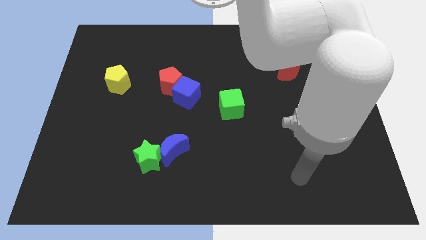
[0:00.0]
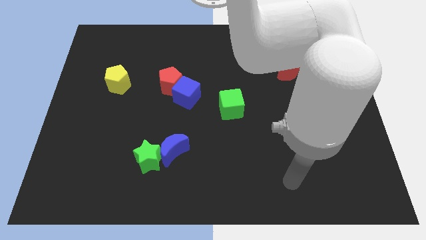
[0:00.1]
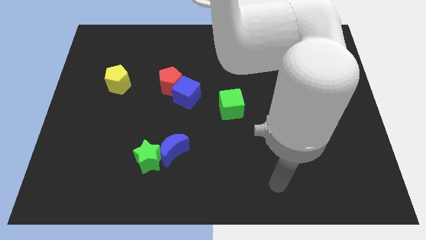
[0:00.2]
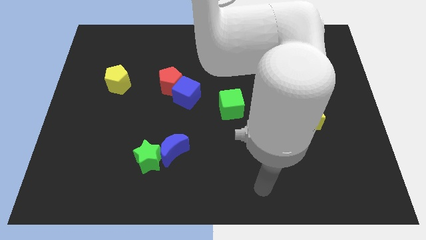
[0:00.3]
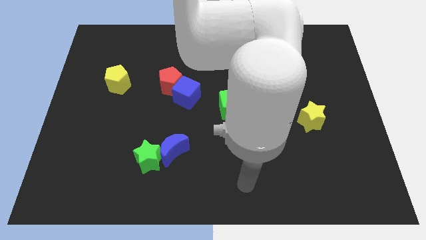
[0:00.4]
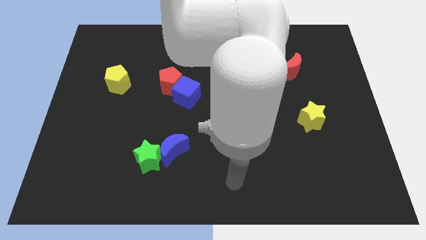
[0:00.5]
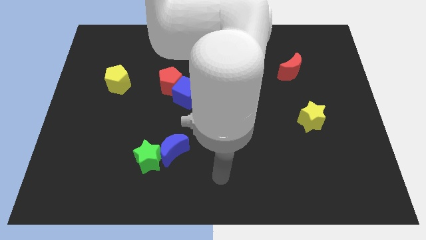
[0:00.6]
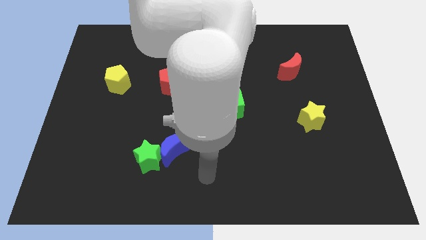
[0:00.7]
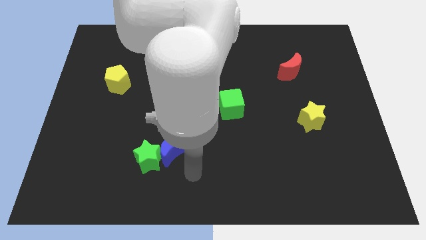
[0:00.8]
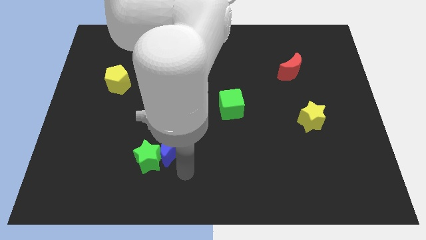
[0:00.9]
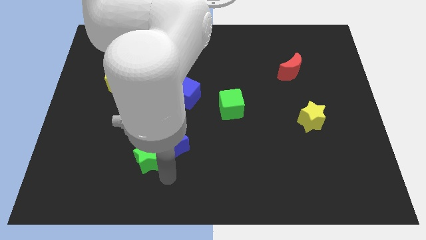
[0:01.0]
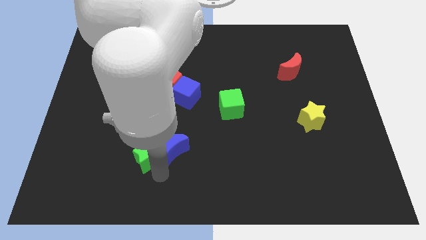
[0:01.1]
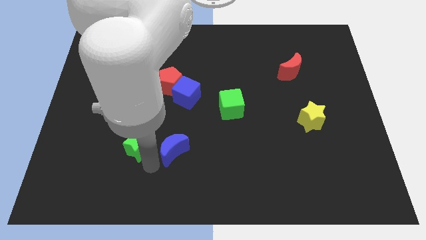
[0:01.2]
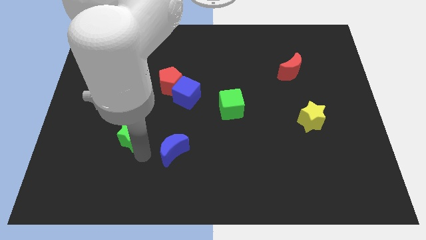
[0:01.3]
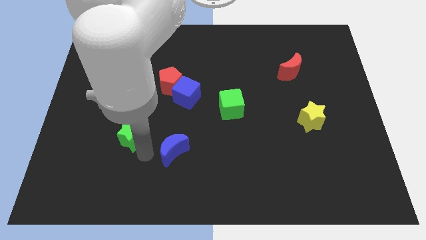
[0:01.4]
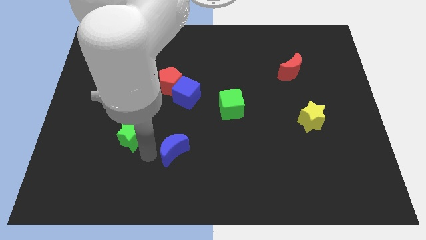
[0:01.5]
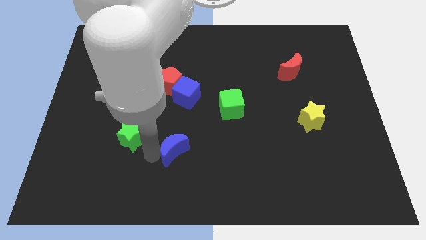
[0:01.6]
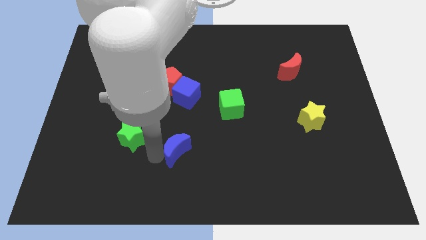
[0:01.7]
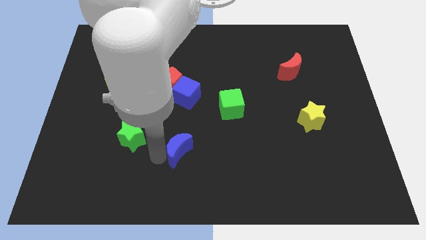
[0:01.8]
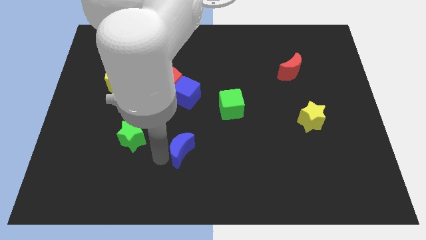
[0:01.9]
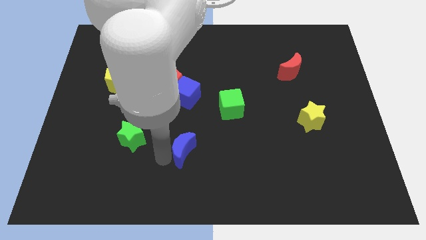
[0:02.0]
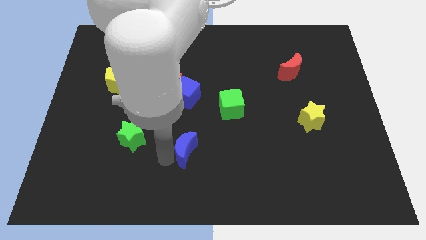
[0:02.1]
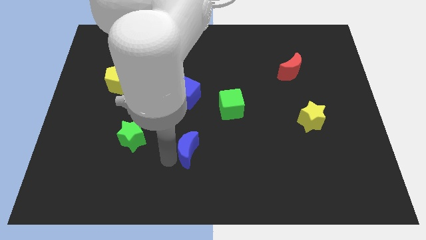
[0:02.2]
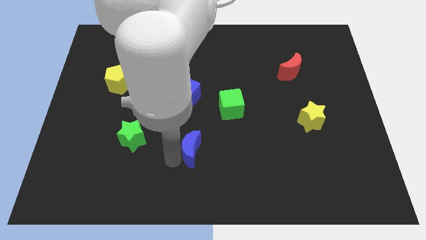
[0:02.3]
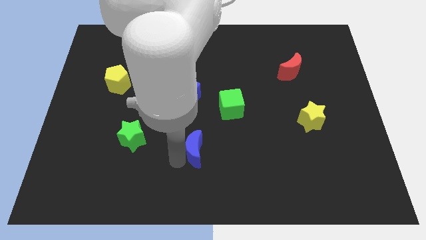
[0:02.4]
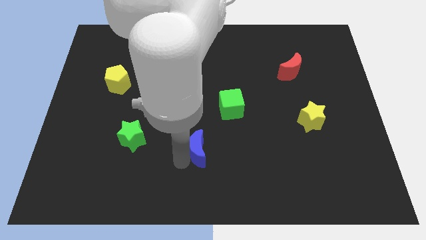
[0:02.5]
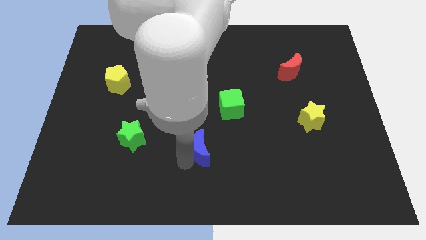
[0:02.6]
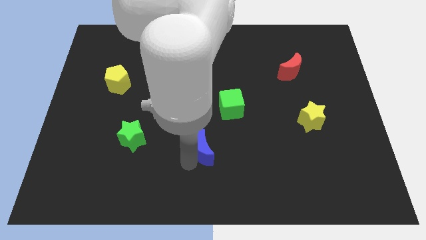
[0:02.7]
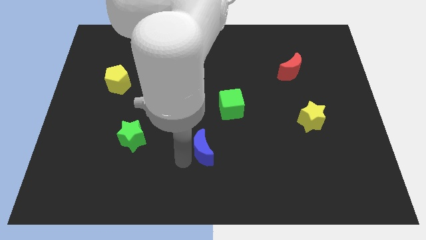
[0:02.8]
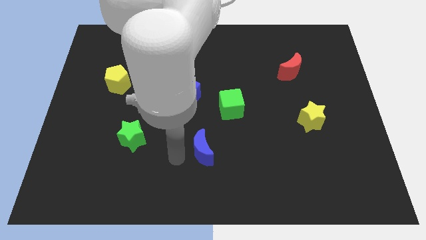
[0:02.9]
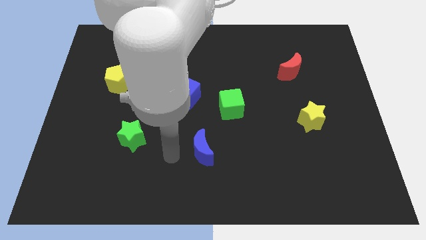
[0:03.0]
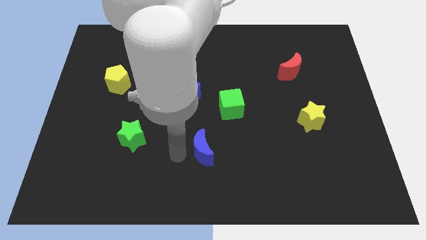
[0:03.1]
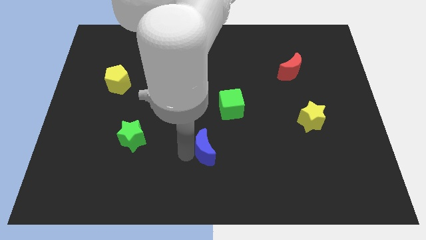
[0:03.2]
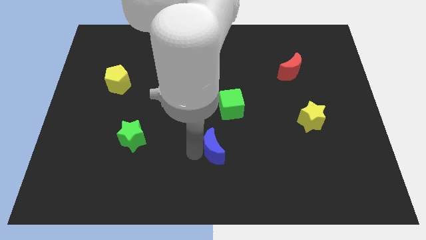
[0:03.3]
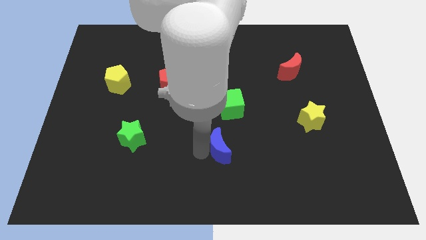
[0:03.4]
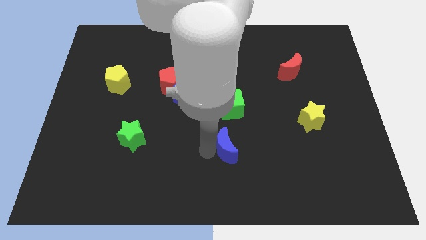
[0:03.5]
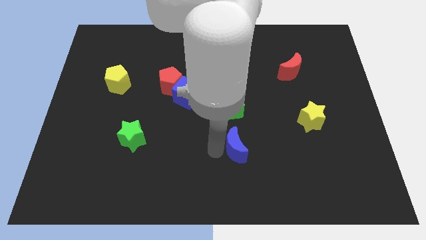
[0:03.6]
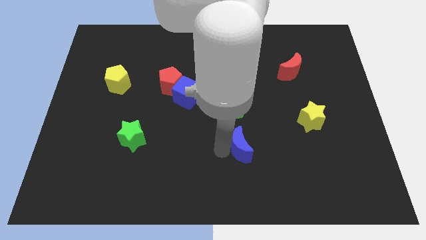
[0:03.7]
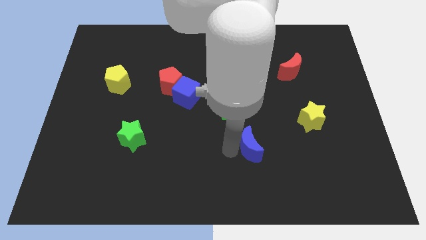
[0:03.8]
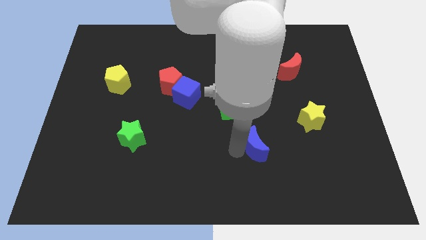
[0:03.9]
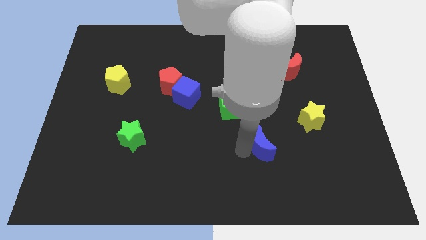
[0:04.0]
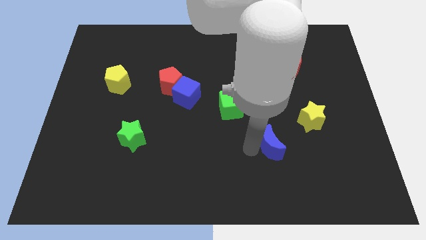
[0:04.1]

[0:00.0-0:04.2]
push the blue moon to the right

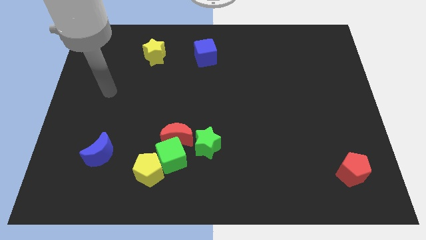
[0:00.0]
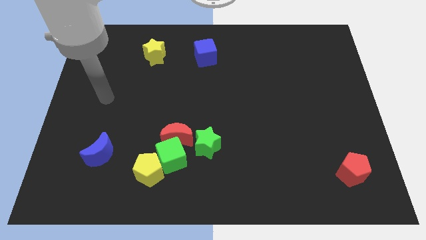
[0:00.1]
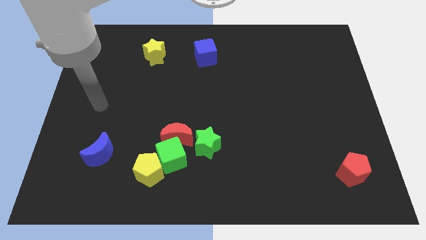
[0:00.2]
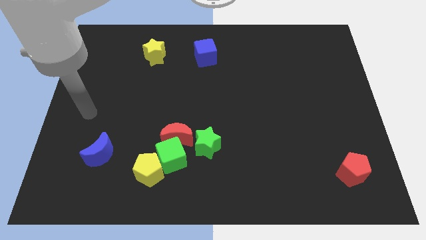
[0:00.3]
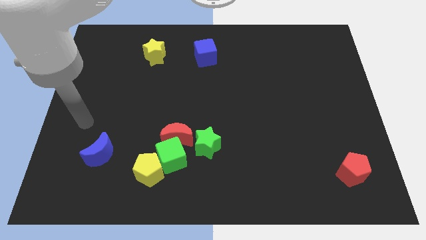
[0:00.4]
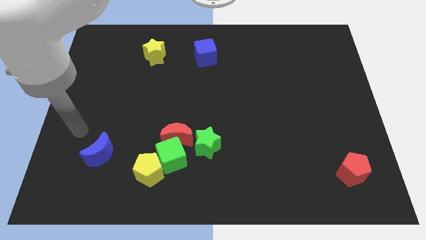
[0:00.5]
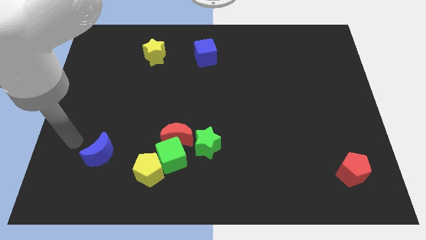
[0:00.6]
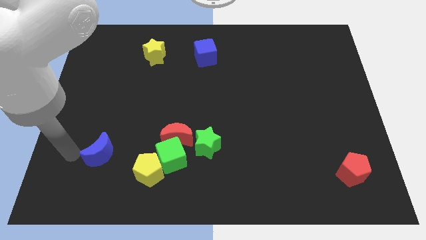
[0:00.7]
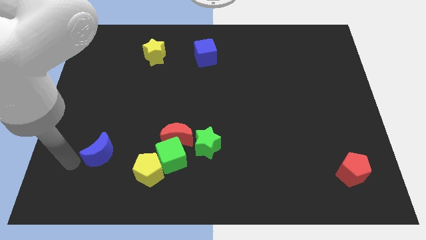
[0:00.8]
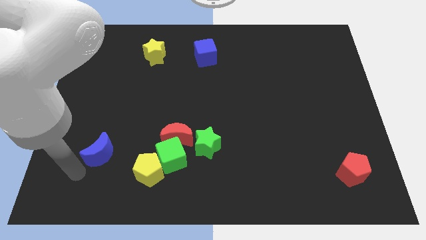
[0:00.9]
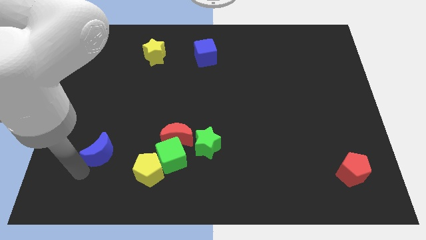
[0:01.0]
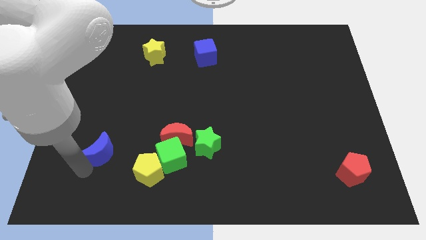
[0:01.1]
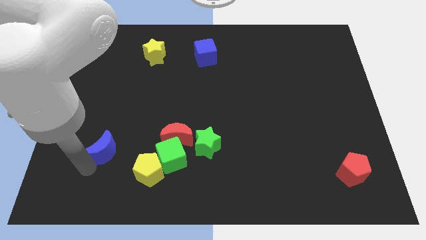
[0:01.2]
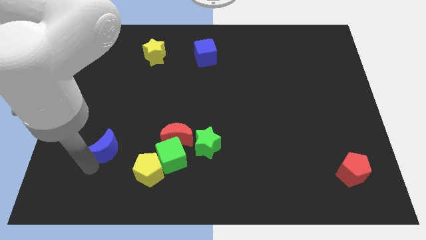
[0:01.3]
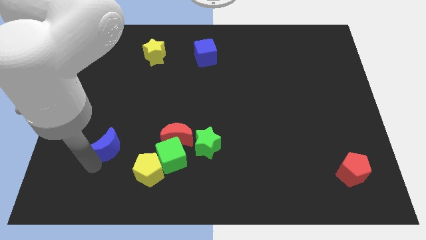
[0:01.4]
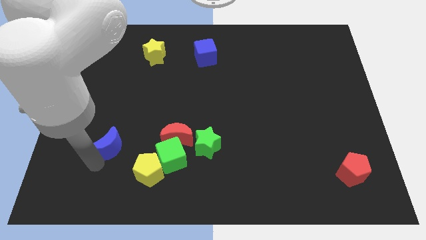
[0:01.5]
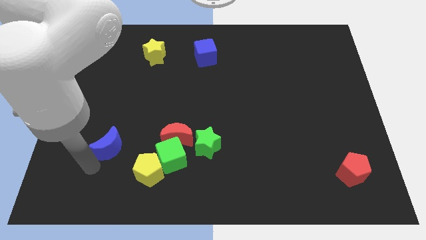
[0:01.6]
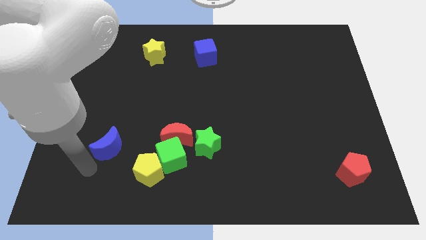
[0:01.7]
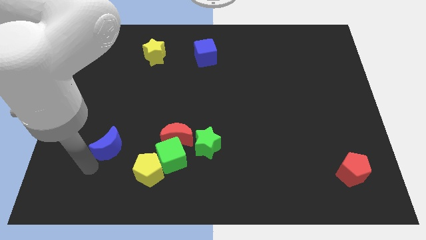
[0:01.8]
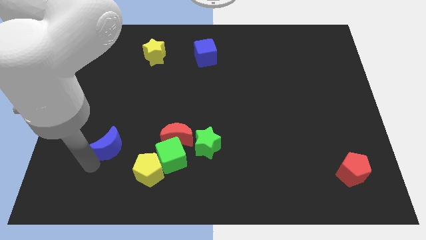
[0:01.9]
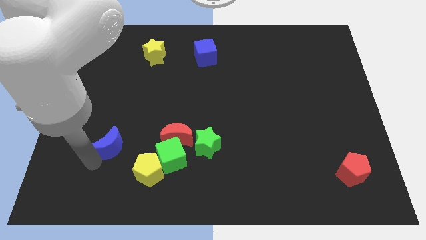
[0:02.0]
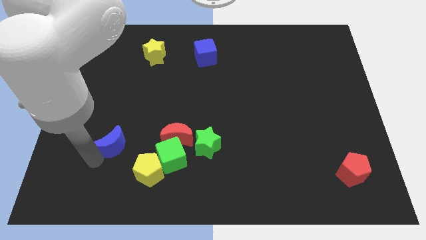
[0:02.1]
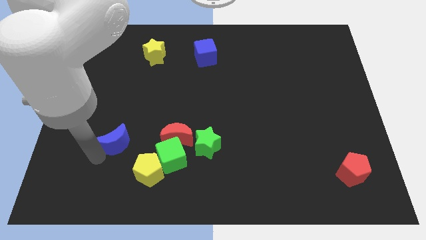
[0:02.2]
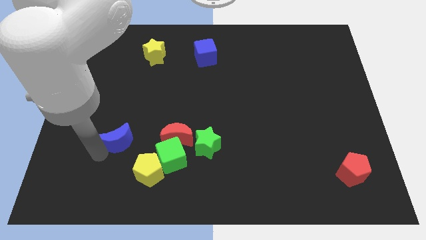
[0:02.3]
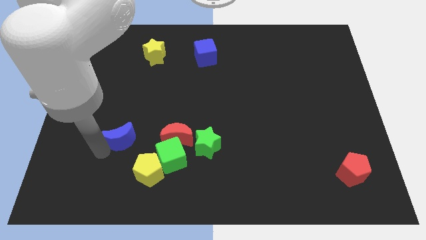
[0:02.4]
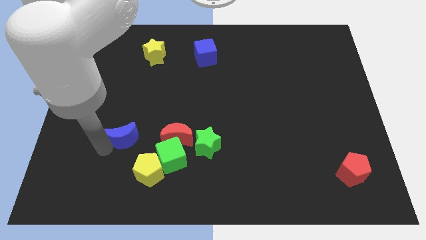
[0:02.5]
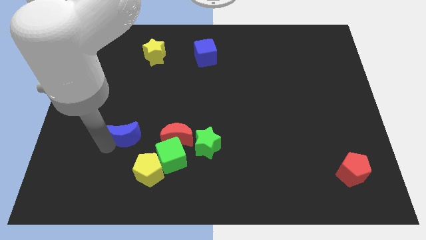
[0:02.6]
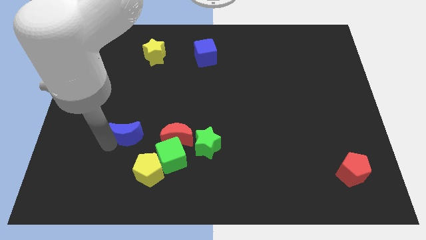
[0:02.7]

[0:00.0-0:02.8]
move the blue moon diagonally upwards and right a little

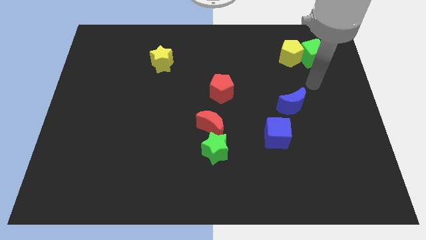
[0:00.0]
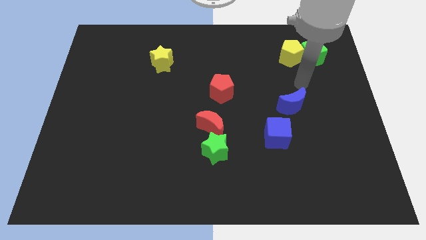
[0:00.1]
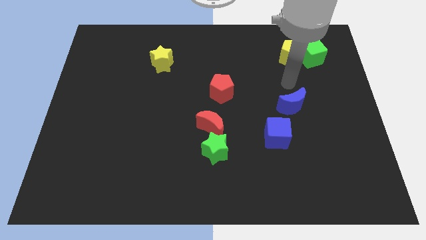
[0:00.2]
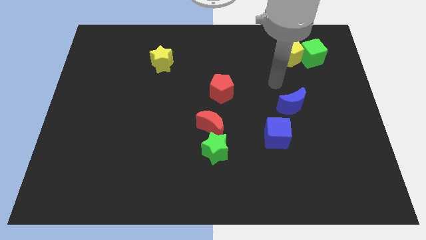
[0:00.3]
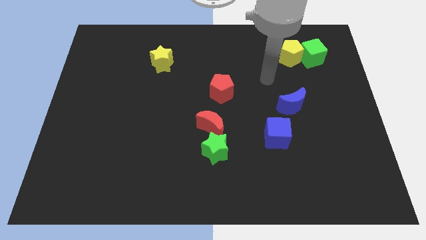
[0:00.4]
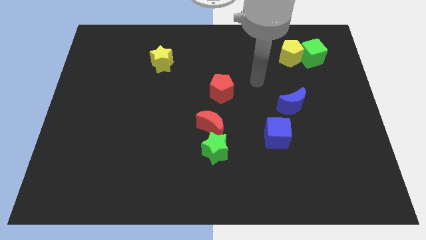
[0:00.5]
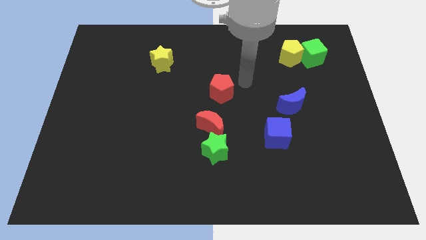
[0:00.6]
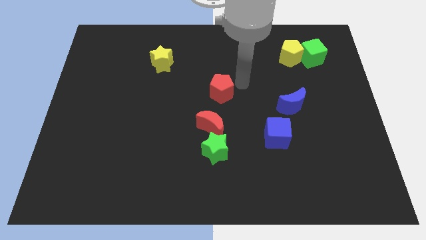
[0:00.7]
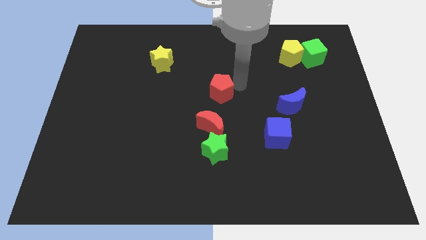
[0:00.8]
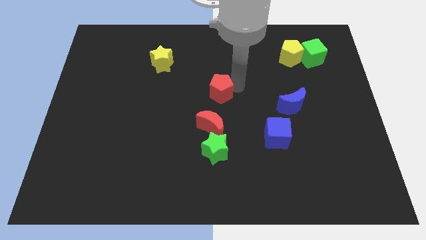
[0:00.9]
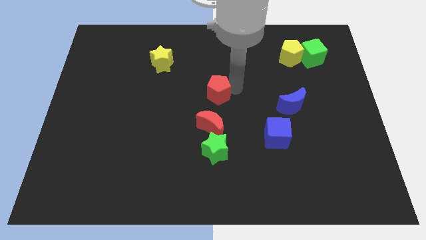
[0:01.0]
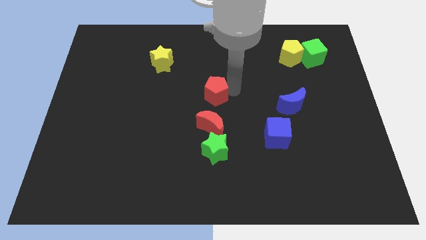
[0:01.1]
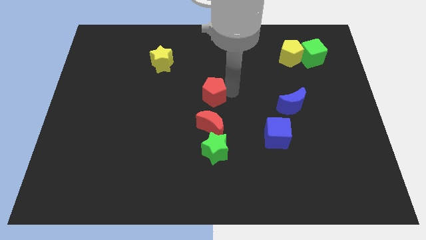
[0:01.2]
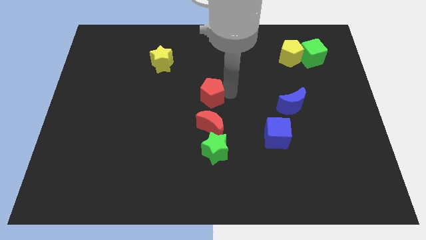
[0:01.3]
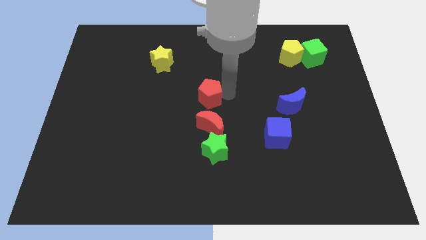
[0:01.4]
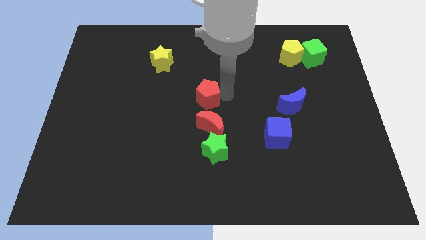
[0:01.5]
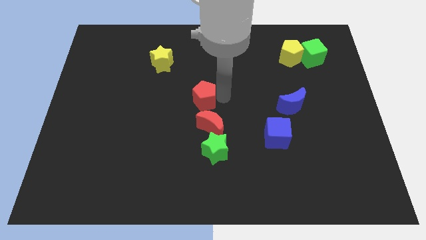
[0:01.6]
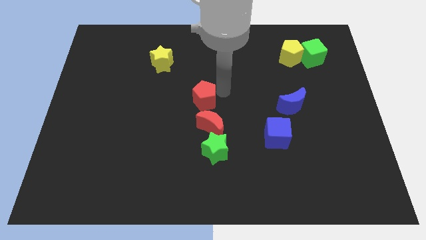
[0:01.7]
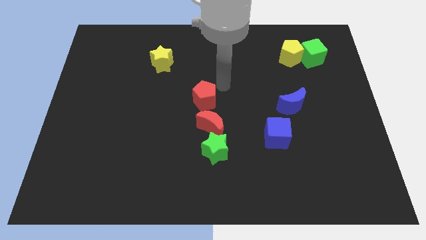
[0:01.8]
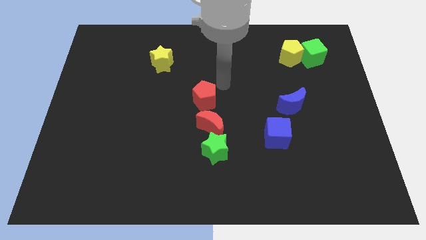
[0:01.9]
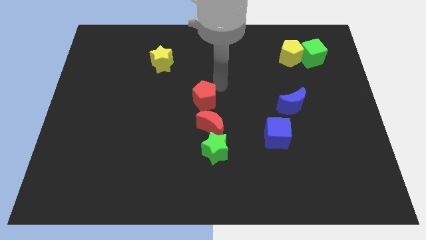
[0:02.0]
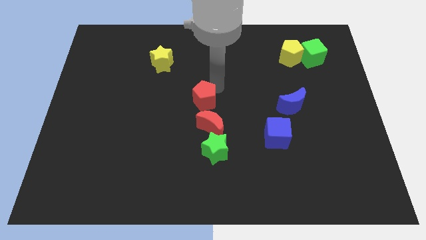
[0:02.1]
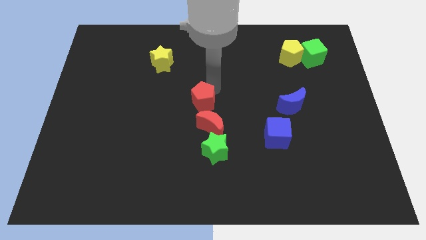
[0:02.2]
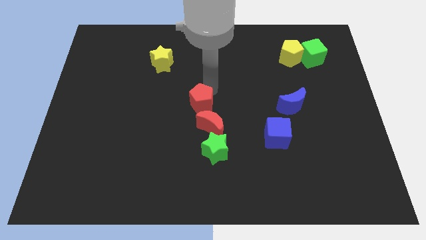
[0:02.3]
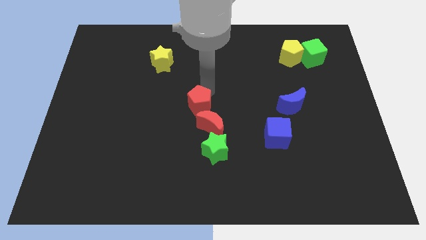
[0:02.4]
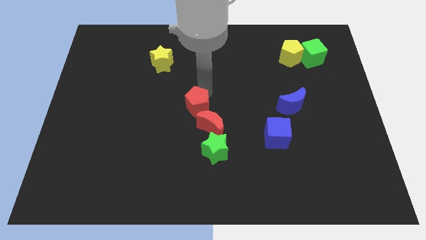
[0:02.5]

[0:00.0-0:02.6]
slide the red pentagon somewhat downwards and to the left
